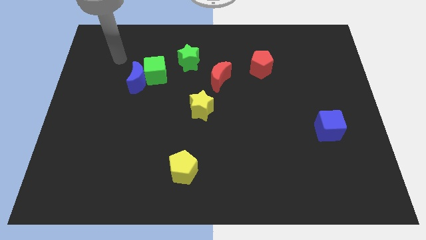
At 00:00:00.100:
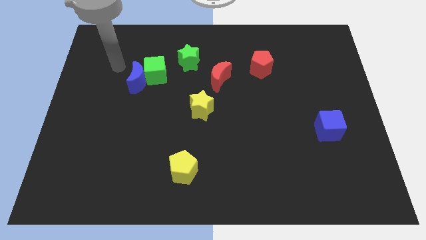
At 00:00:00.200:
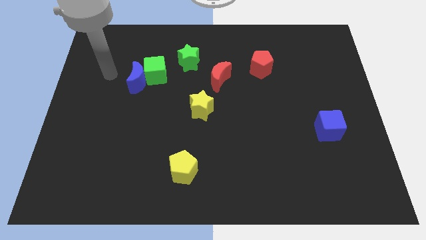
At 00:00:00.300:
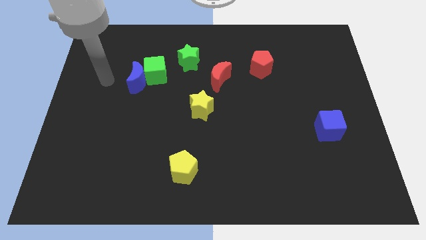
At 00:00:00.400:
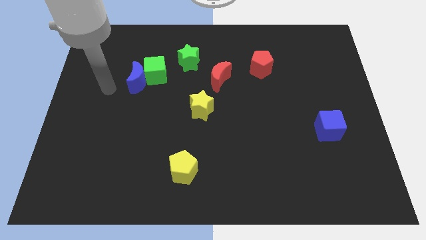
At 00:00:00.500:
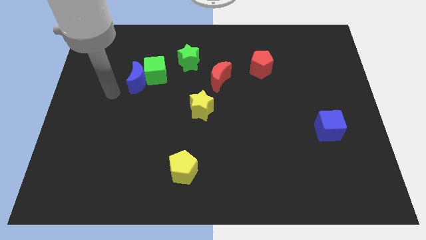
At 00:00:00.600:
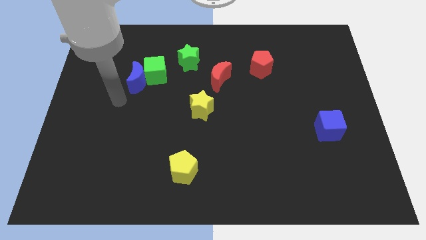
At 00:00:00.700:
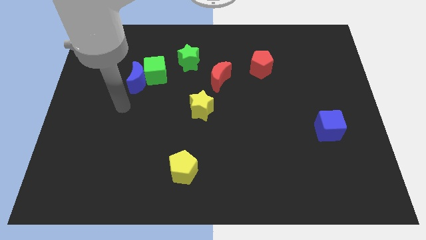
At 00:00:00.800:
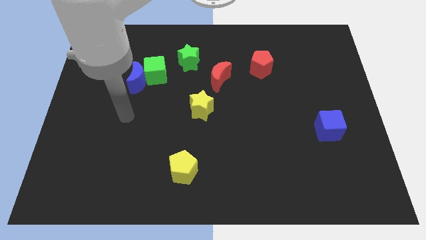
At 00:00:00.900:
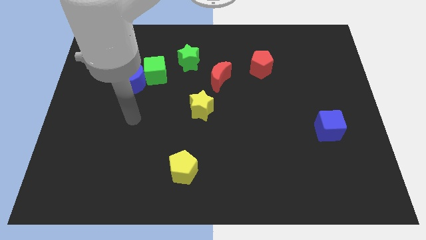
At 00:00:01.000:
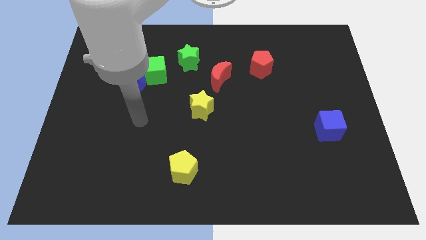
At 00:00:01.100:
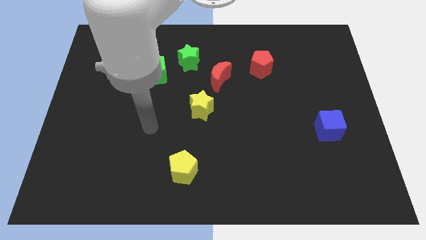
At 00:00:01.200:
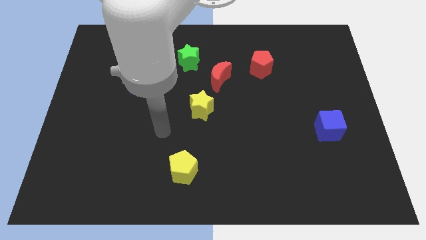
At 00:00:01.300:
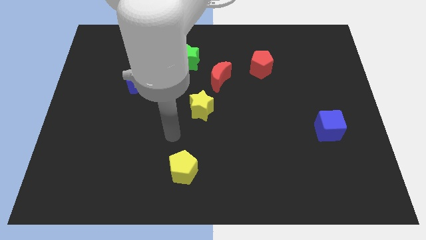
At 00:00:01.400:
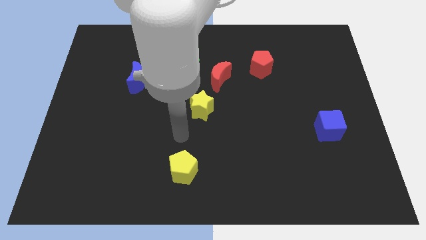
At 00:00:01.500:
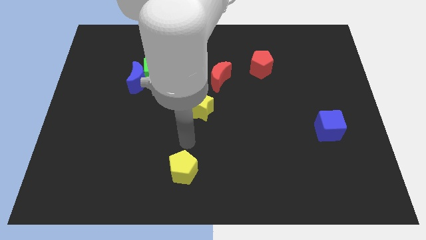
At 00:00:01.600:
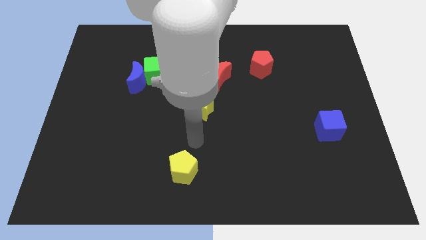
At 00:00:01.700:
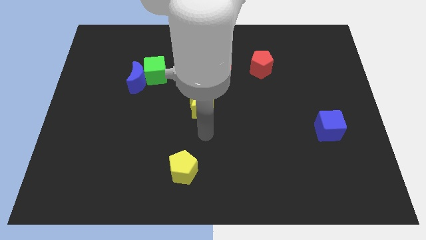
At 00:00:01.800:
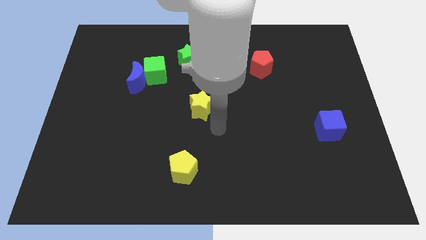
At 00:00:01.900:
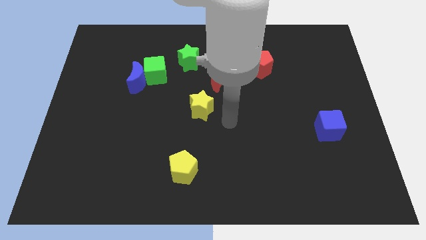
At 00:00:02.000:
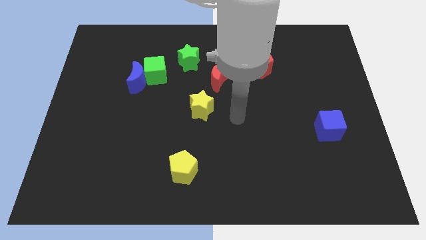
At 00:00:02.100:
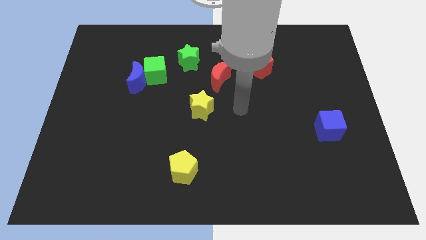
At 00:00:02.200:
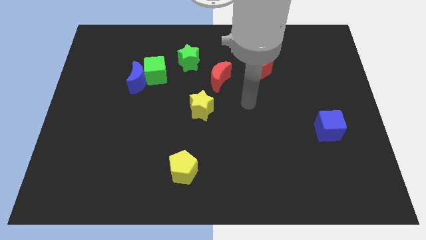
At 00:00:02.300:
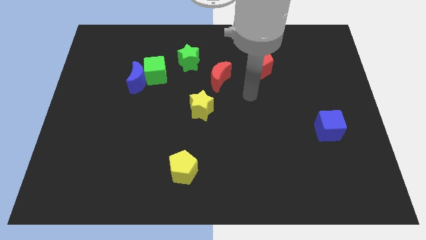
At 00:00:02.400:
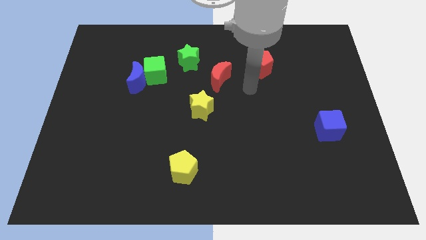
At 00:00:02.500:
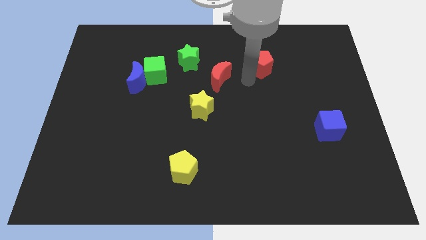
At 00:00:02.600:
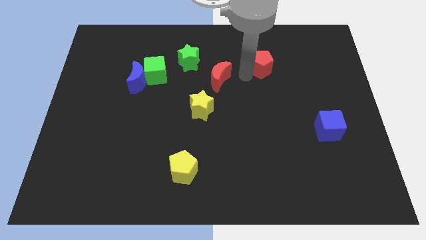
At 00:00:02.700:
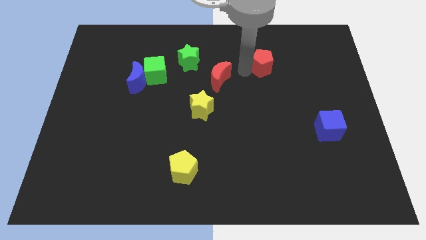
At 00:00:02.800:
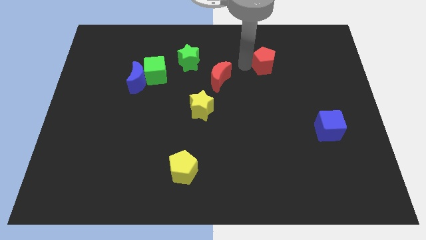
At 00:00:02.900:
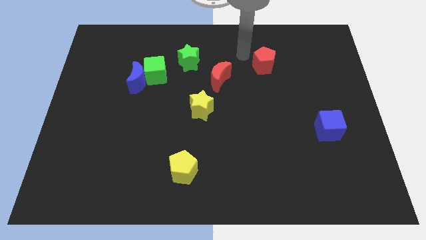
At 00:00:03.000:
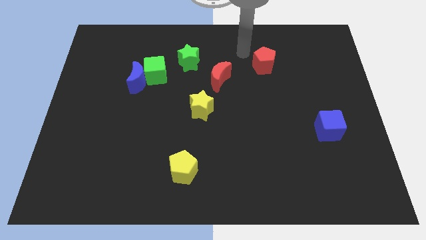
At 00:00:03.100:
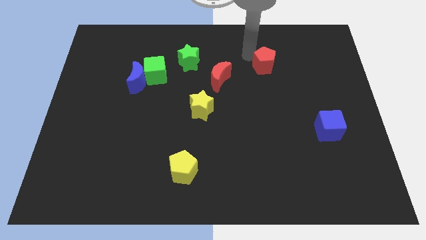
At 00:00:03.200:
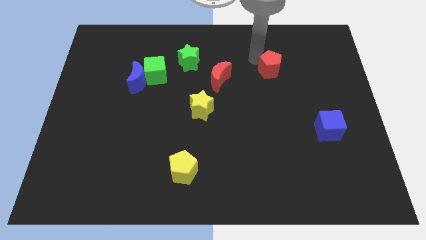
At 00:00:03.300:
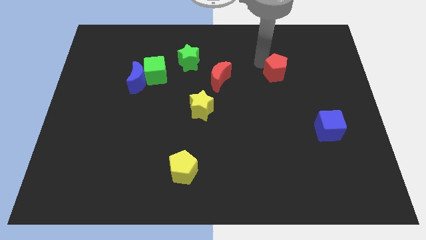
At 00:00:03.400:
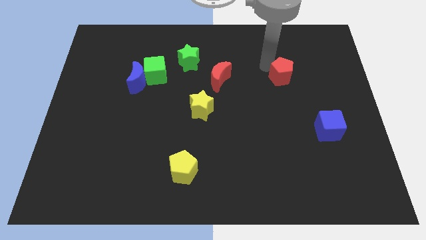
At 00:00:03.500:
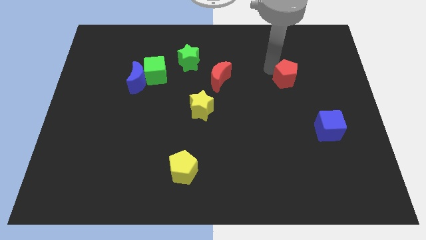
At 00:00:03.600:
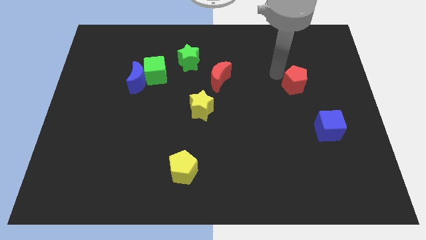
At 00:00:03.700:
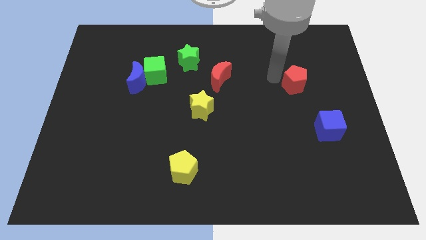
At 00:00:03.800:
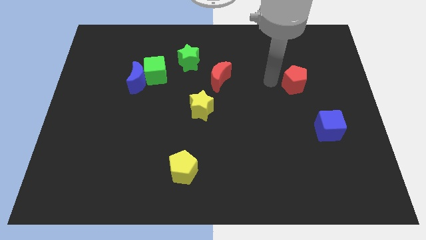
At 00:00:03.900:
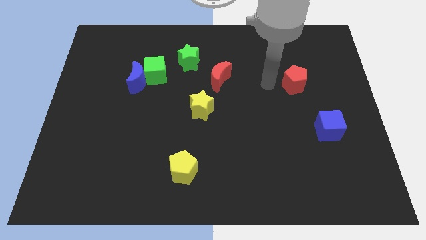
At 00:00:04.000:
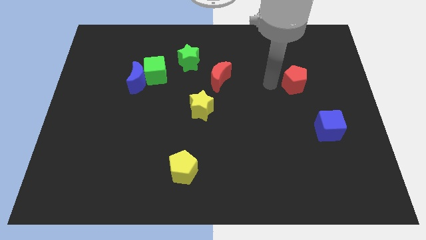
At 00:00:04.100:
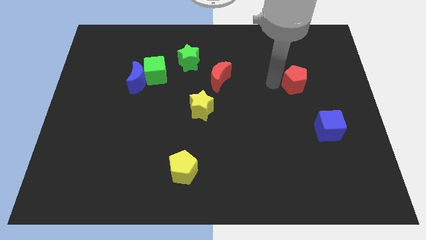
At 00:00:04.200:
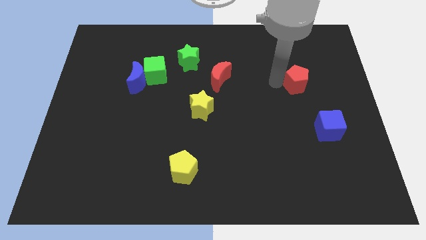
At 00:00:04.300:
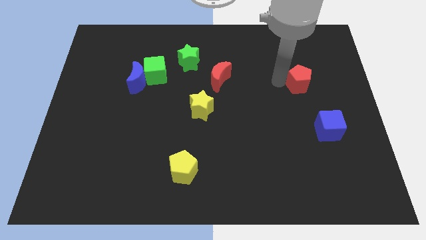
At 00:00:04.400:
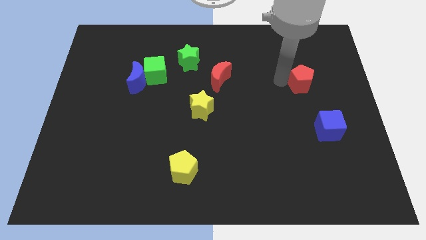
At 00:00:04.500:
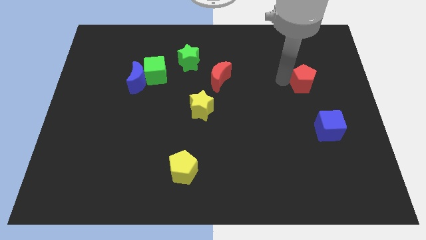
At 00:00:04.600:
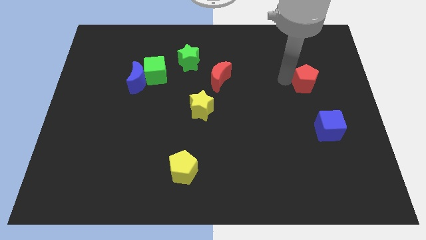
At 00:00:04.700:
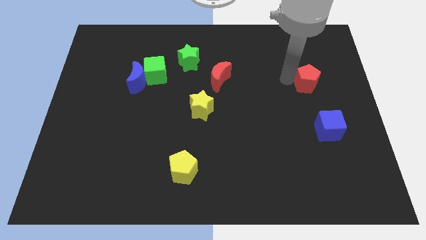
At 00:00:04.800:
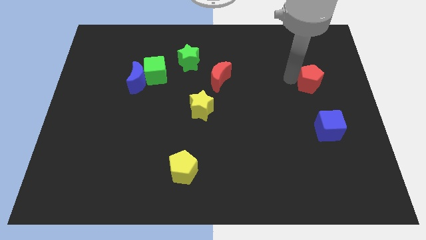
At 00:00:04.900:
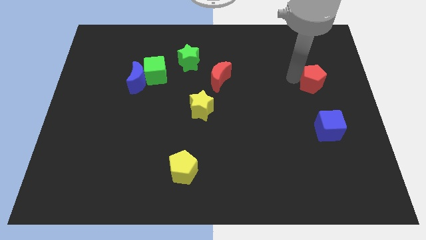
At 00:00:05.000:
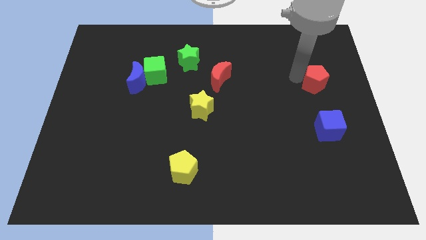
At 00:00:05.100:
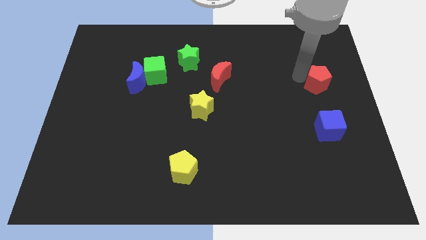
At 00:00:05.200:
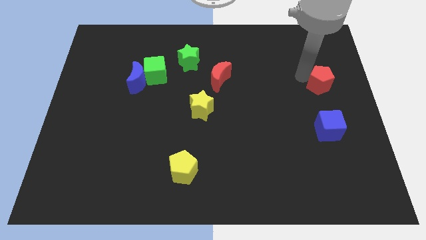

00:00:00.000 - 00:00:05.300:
slide the red pentagon to the right side of the board
